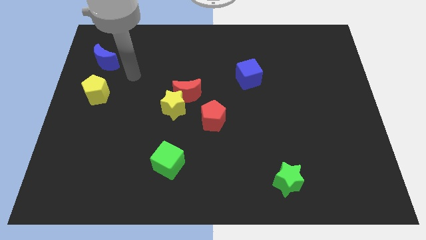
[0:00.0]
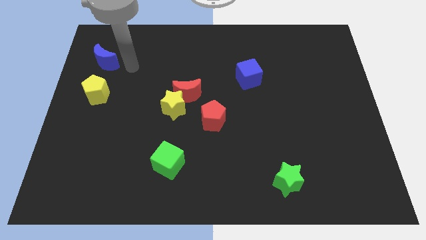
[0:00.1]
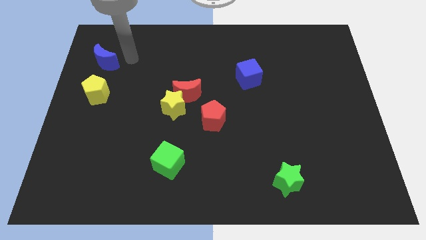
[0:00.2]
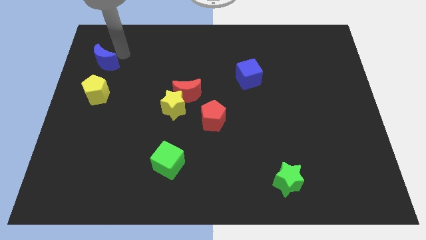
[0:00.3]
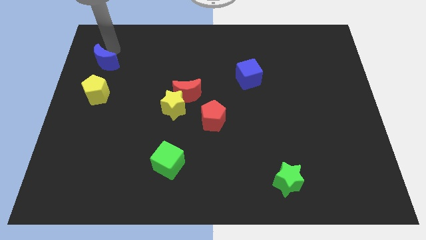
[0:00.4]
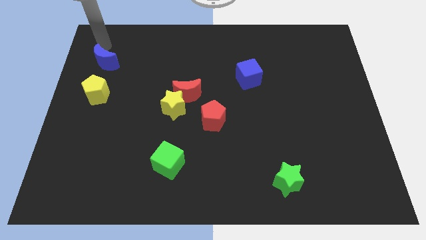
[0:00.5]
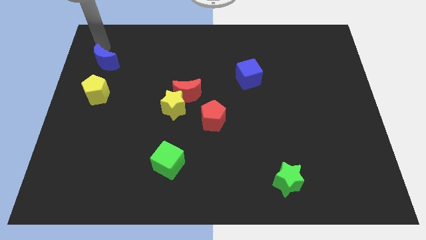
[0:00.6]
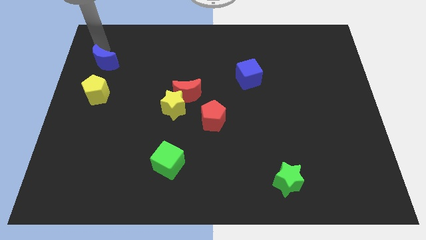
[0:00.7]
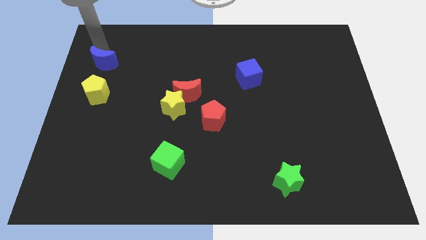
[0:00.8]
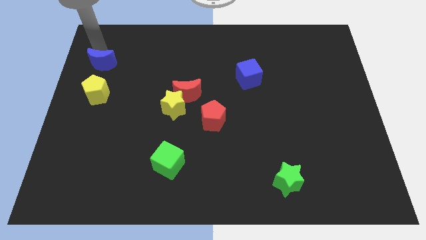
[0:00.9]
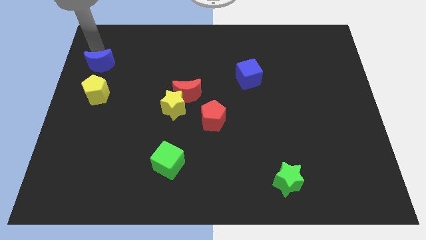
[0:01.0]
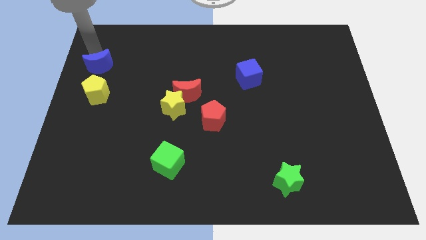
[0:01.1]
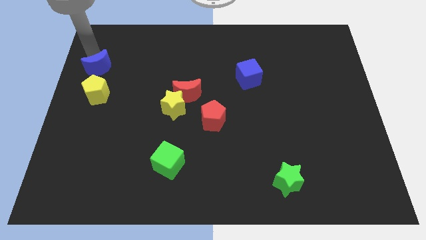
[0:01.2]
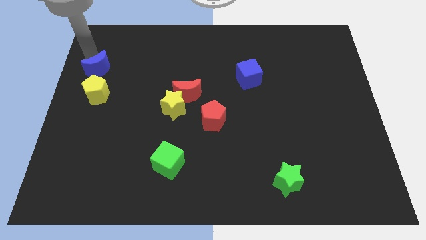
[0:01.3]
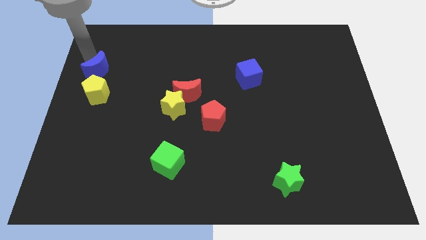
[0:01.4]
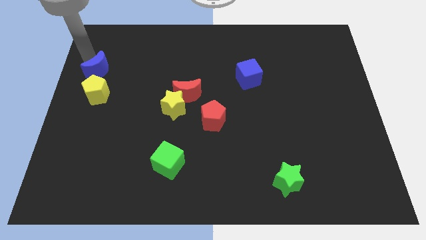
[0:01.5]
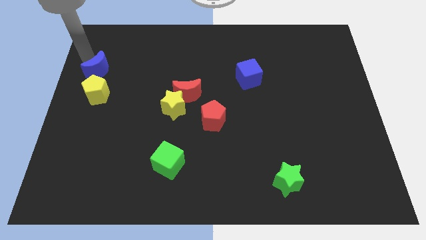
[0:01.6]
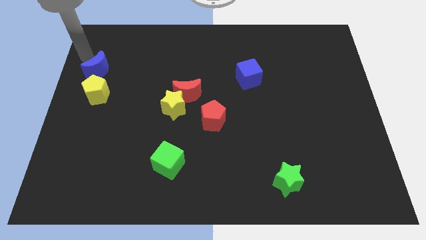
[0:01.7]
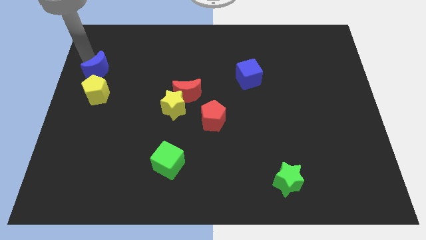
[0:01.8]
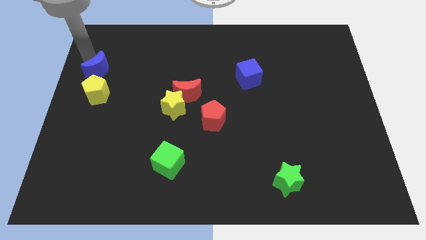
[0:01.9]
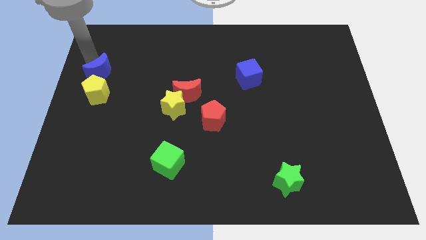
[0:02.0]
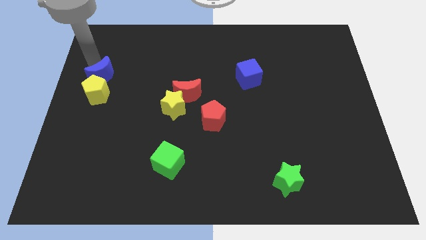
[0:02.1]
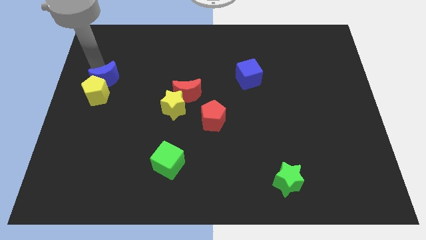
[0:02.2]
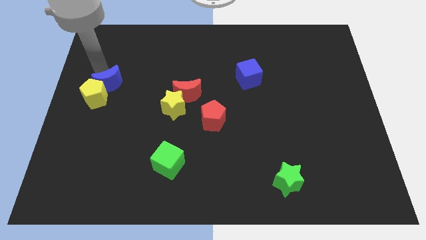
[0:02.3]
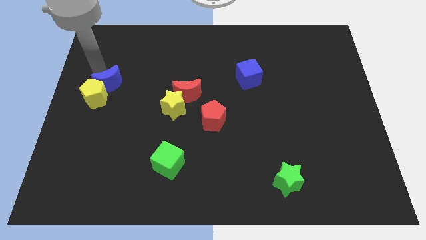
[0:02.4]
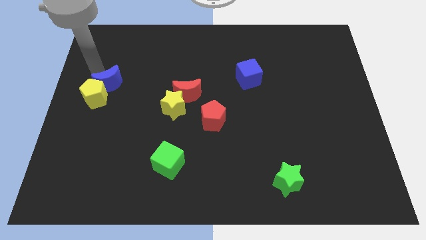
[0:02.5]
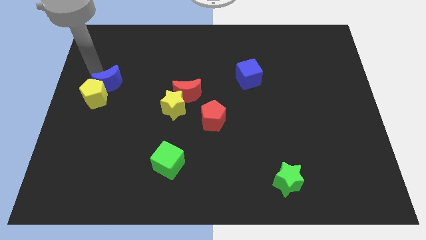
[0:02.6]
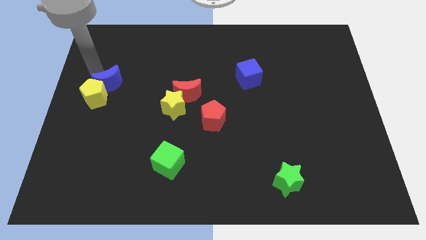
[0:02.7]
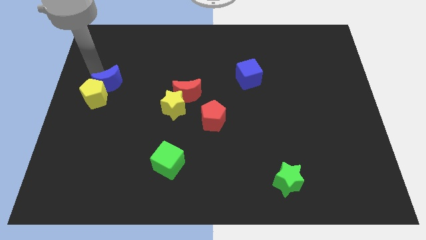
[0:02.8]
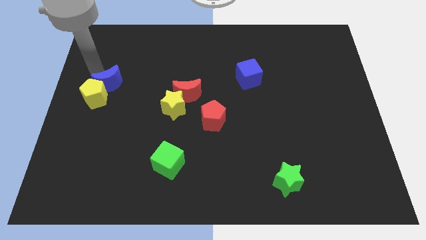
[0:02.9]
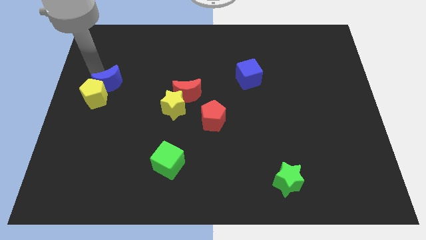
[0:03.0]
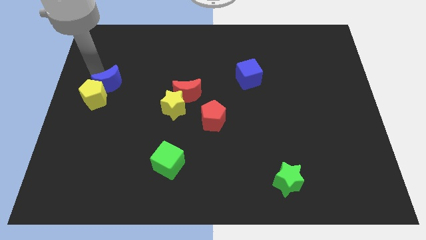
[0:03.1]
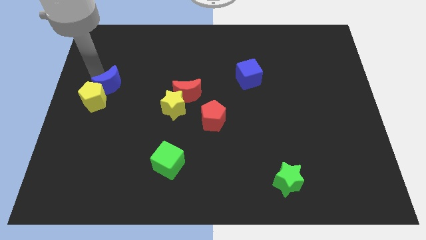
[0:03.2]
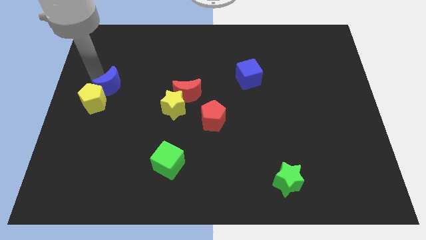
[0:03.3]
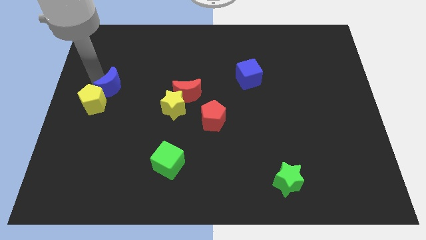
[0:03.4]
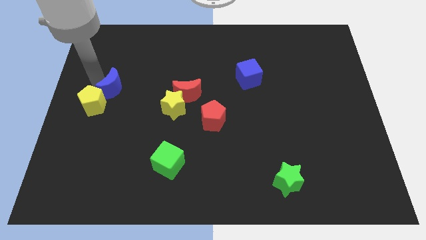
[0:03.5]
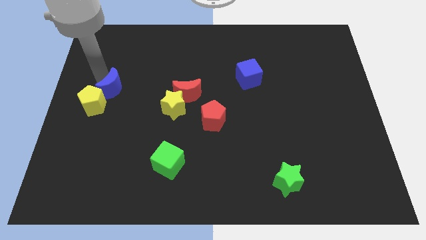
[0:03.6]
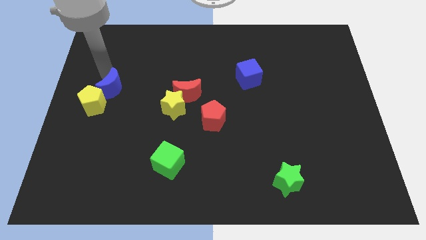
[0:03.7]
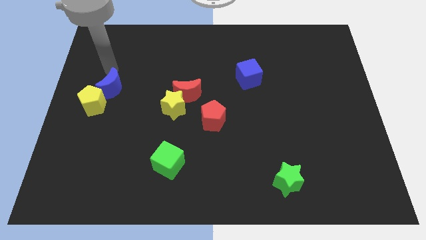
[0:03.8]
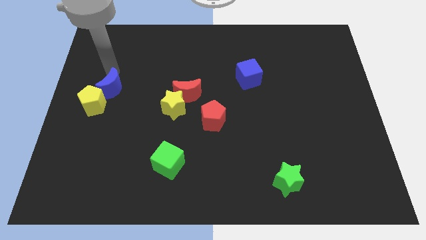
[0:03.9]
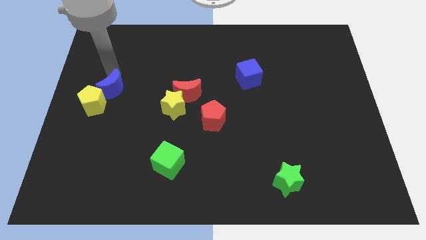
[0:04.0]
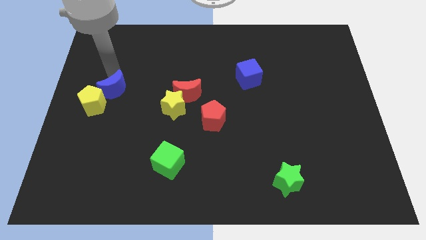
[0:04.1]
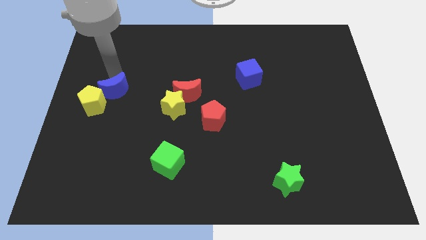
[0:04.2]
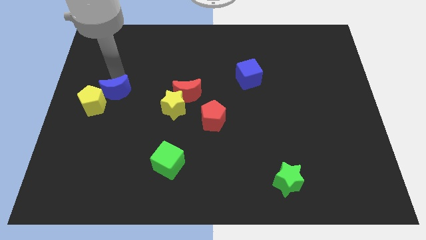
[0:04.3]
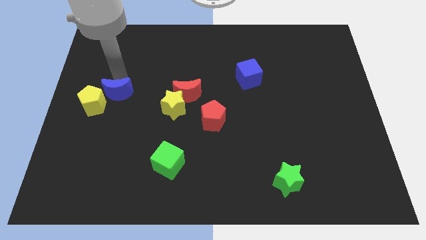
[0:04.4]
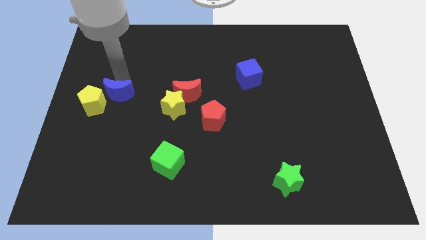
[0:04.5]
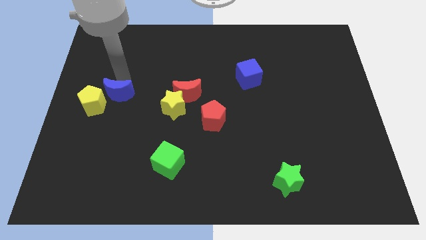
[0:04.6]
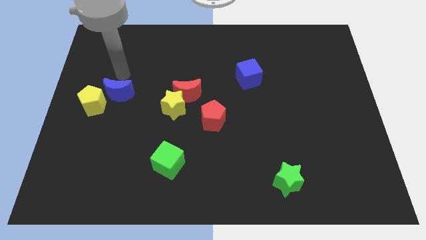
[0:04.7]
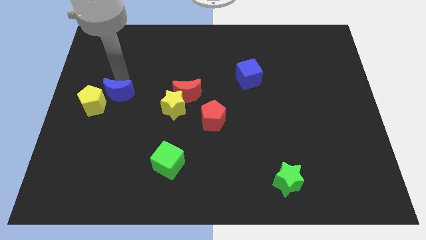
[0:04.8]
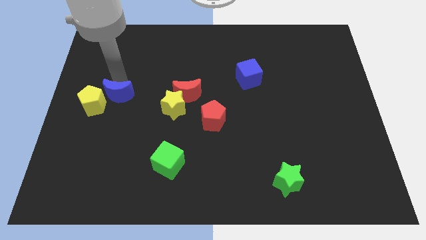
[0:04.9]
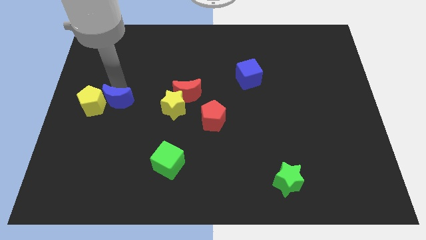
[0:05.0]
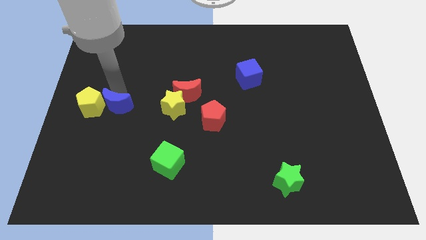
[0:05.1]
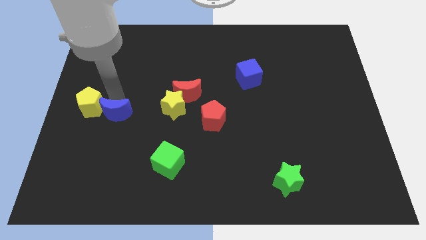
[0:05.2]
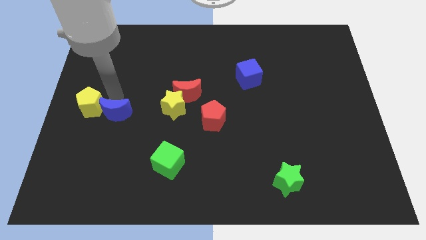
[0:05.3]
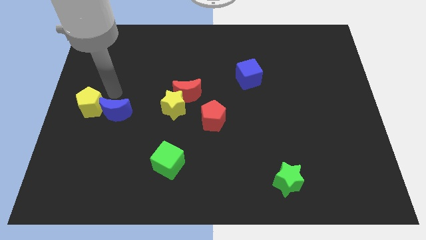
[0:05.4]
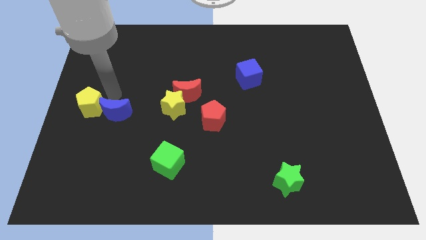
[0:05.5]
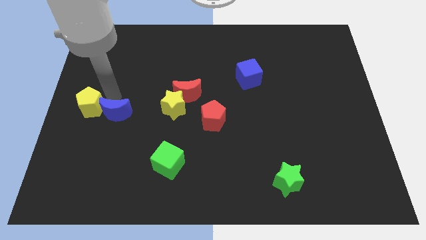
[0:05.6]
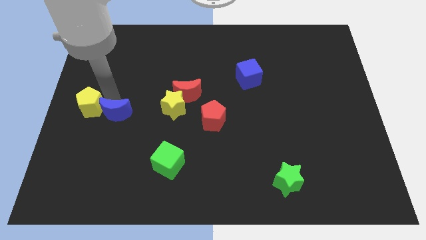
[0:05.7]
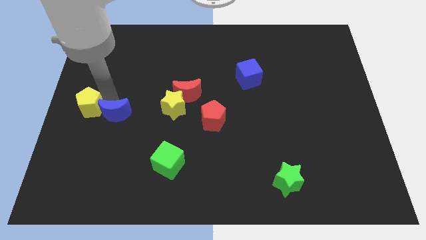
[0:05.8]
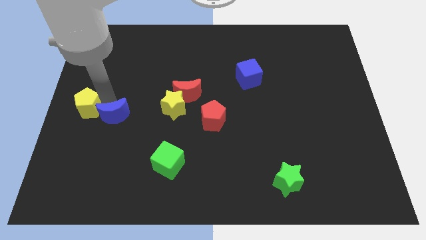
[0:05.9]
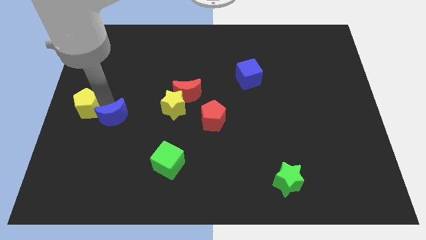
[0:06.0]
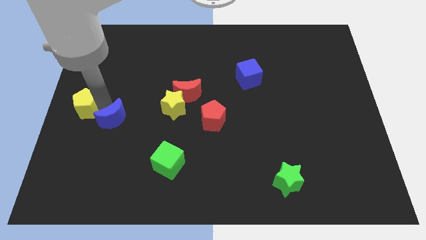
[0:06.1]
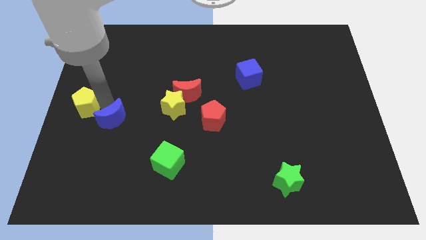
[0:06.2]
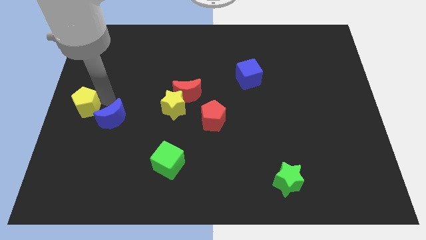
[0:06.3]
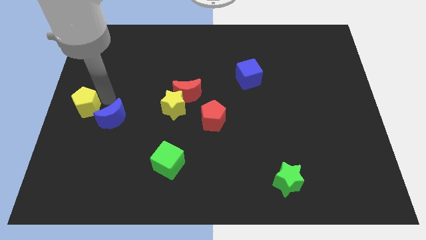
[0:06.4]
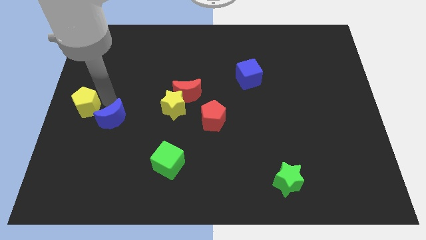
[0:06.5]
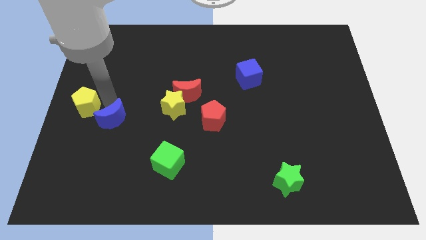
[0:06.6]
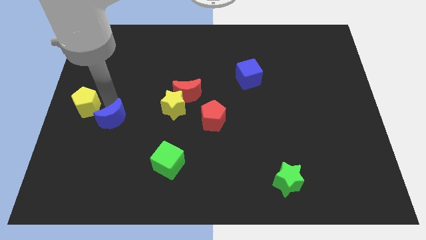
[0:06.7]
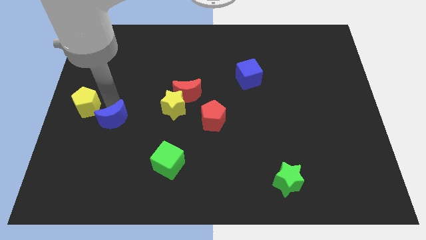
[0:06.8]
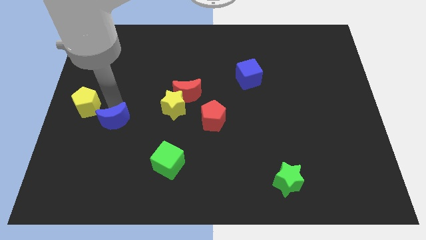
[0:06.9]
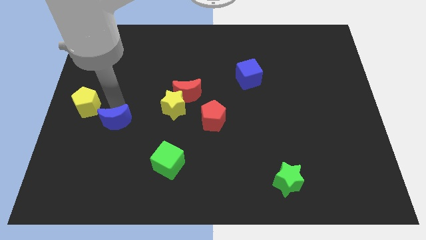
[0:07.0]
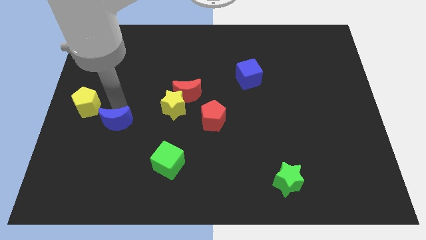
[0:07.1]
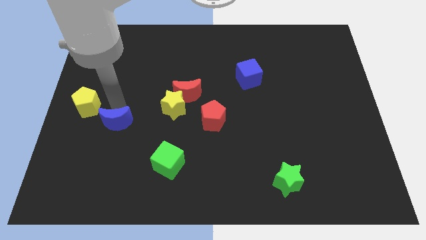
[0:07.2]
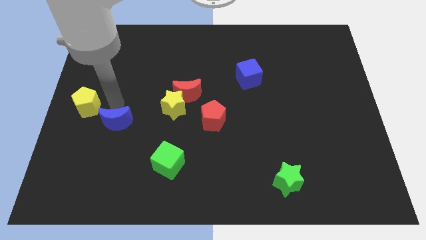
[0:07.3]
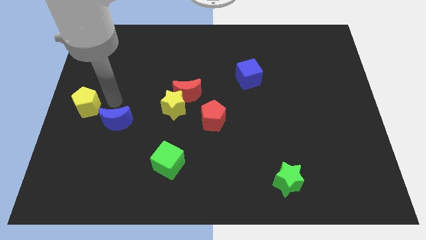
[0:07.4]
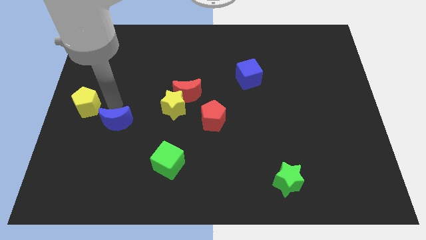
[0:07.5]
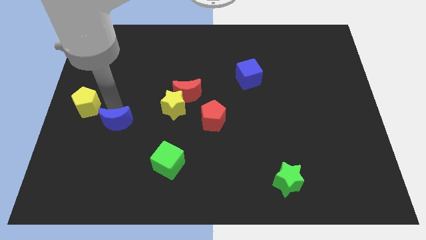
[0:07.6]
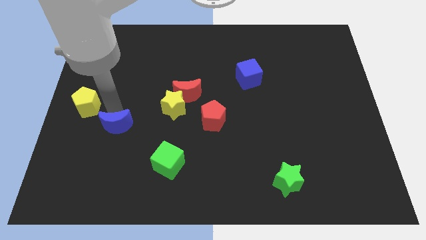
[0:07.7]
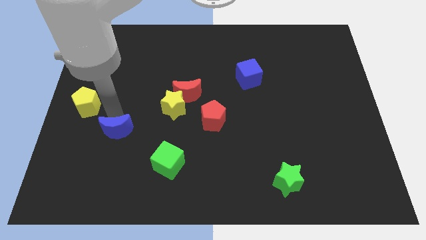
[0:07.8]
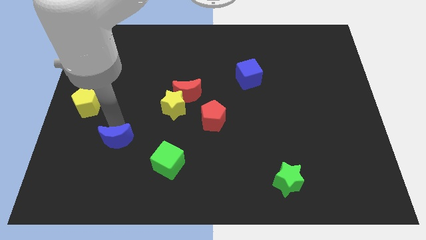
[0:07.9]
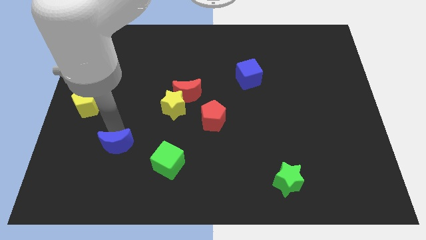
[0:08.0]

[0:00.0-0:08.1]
slide the blue moon left of the green cube
